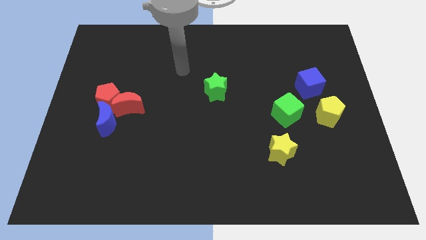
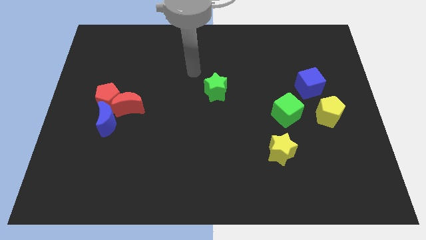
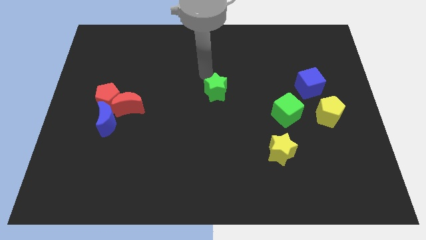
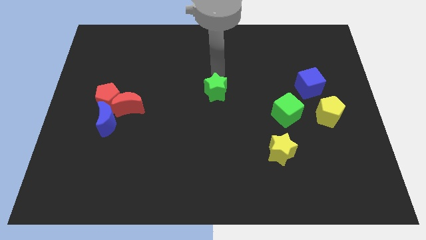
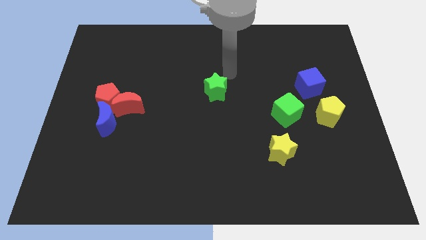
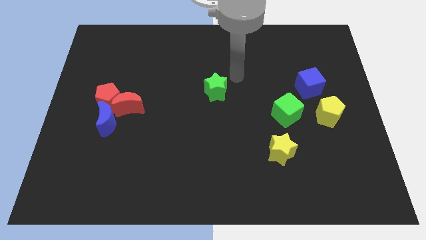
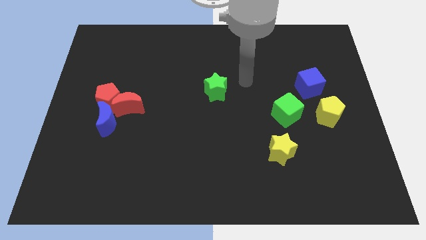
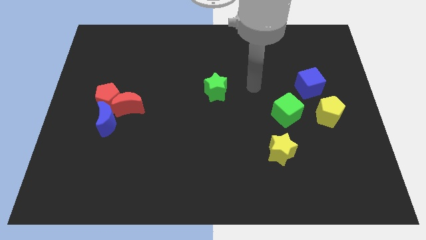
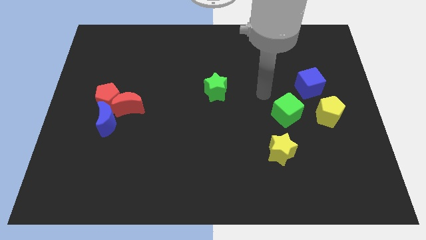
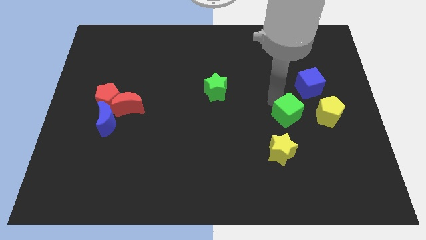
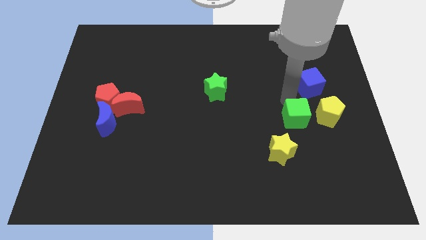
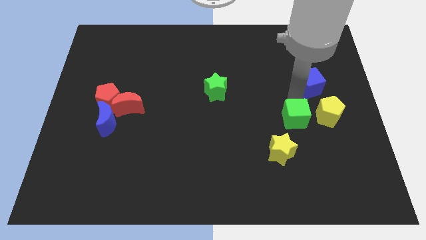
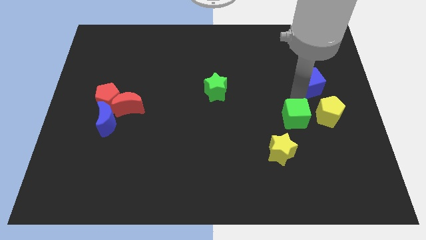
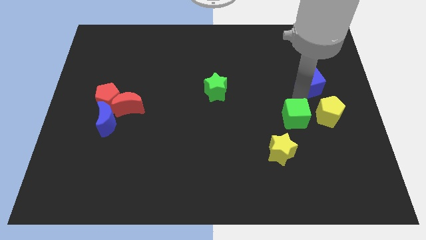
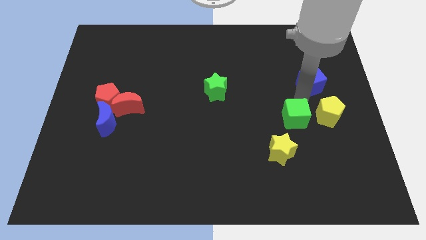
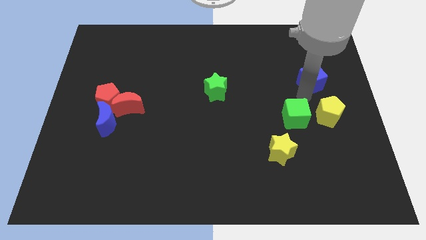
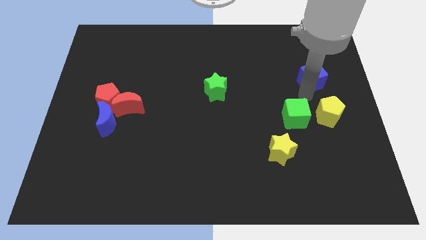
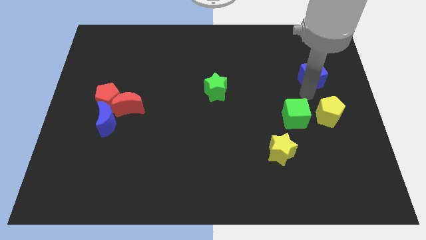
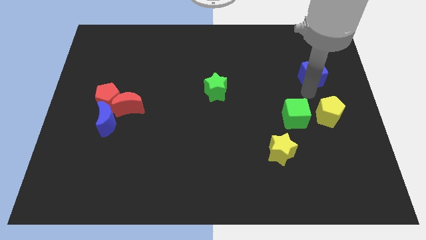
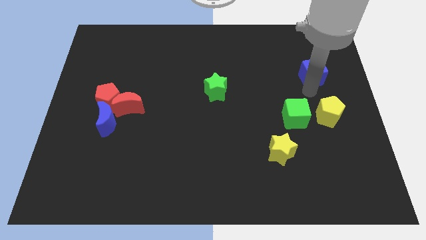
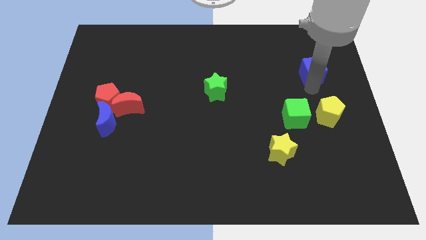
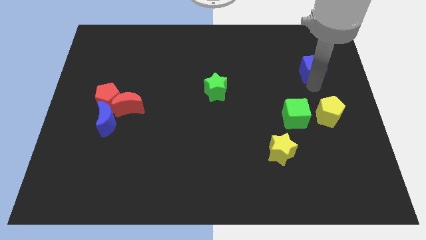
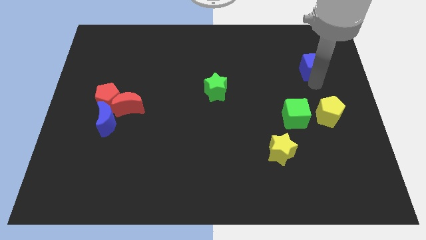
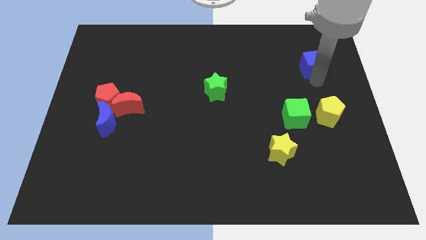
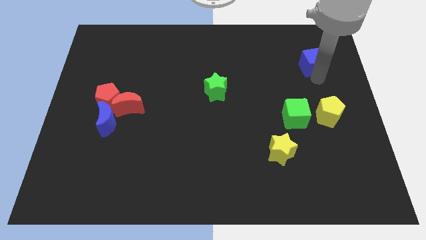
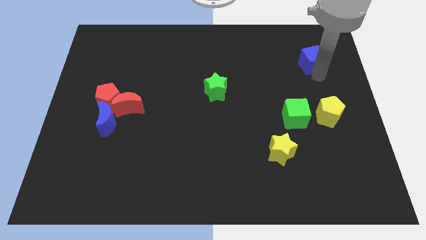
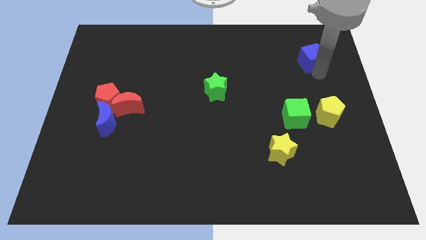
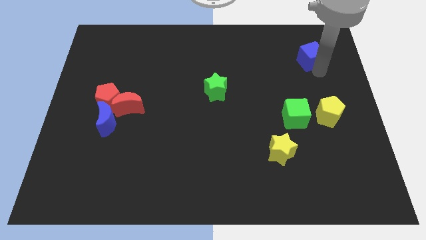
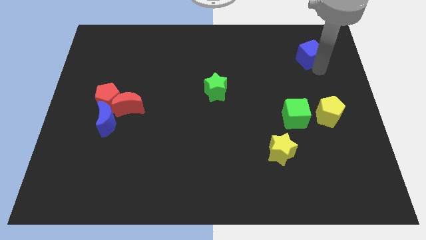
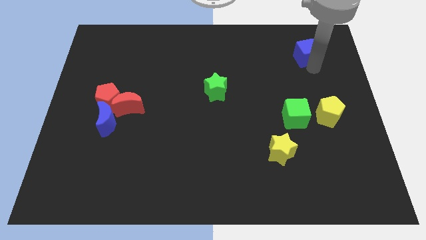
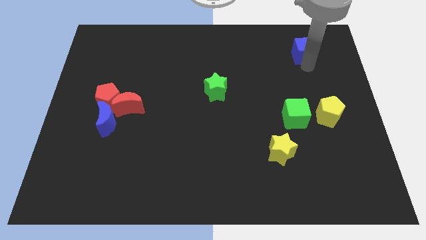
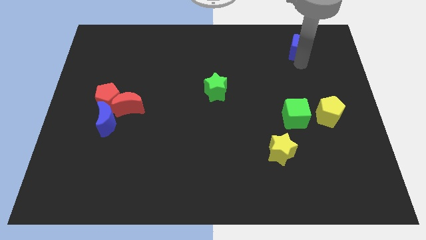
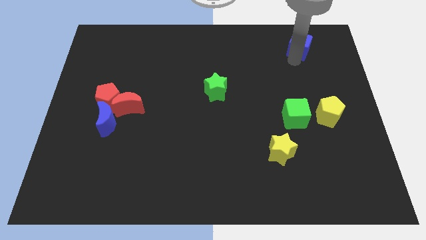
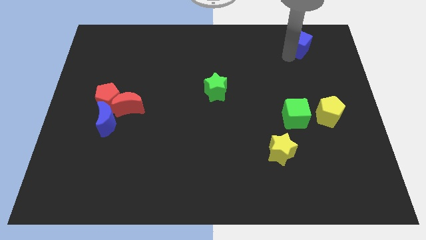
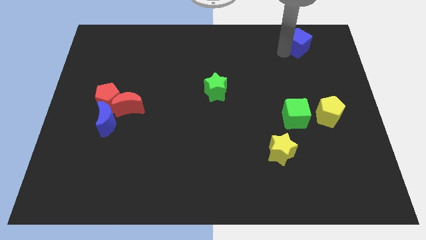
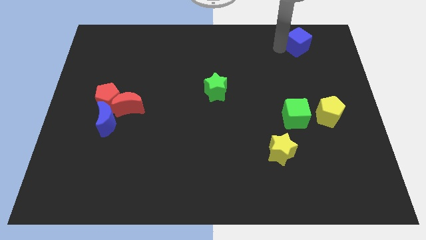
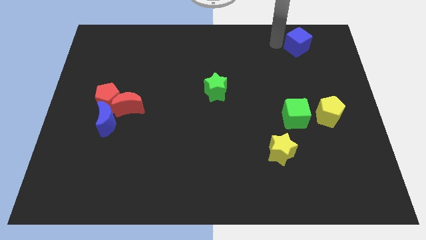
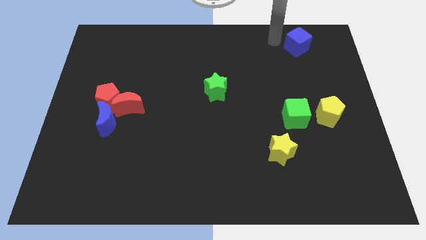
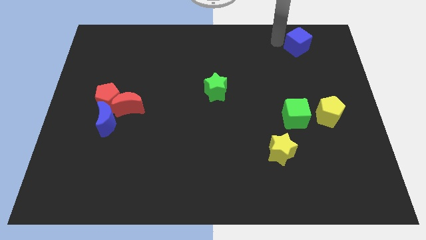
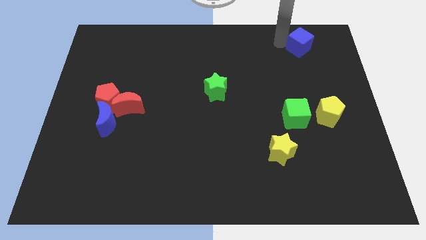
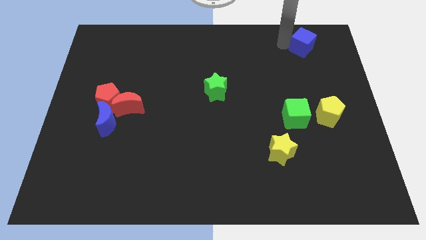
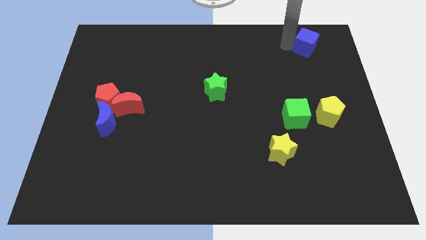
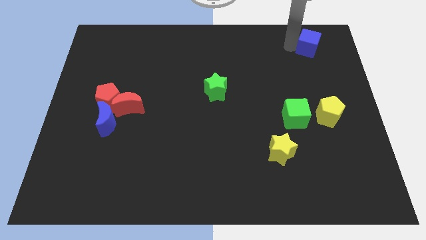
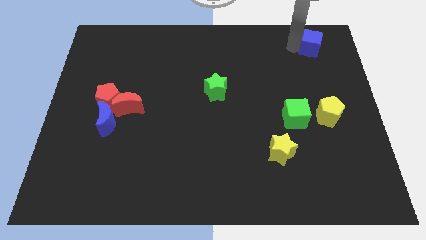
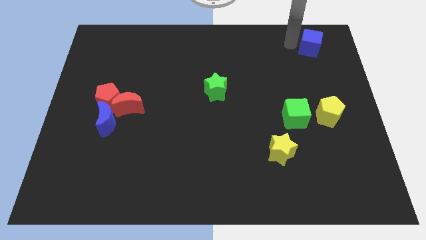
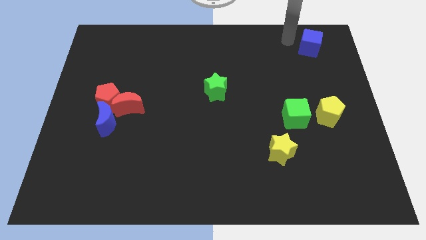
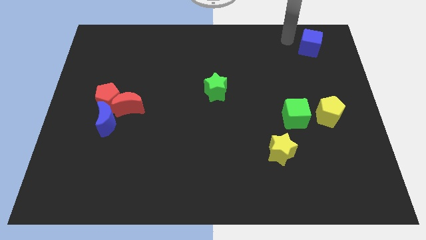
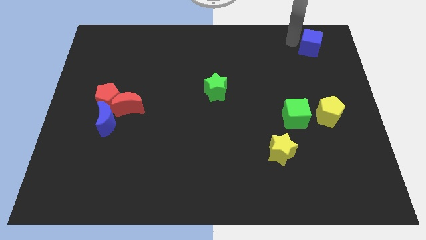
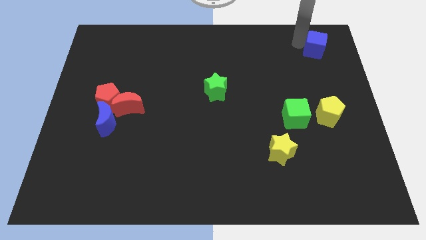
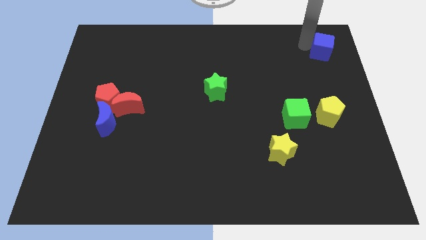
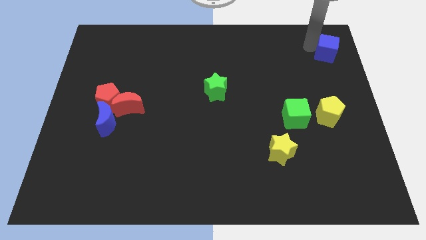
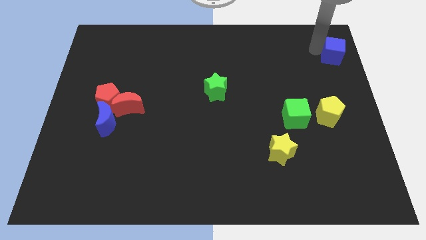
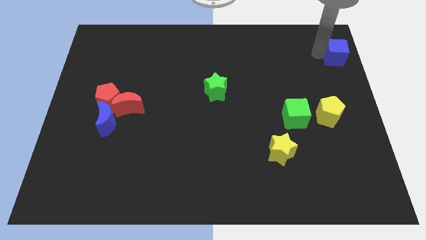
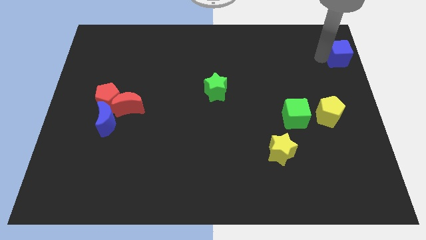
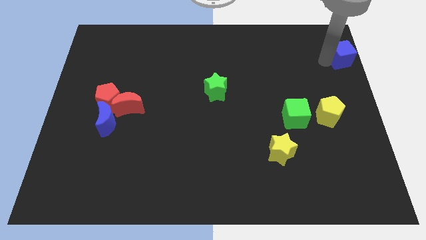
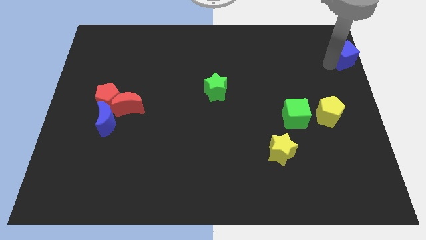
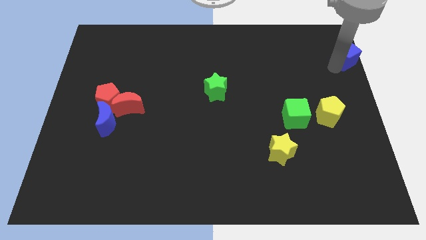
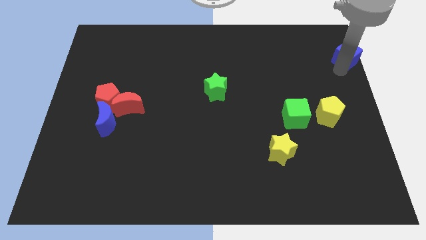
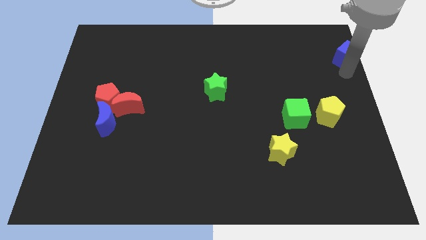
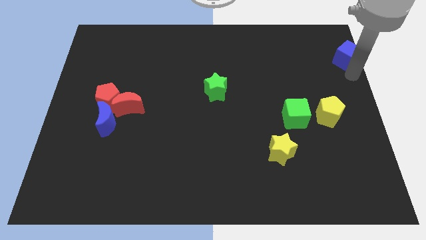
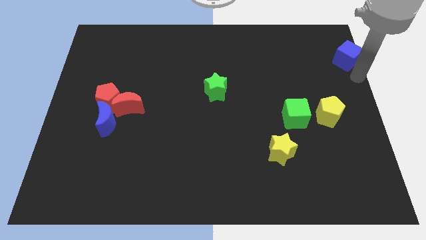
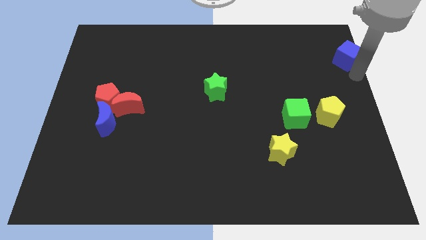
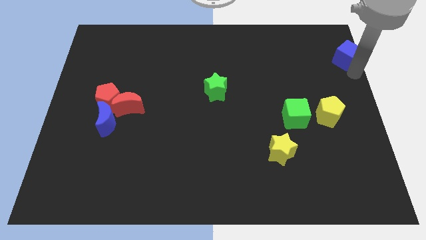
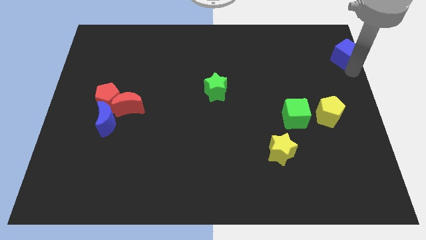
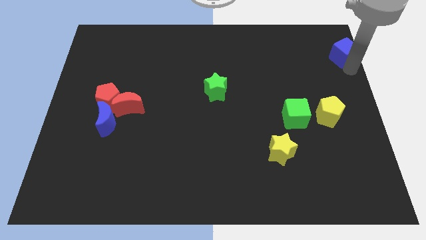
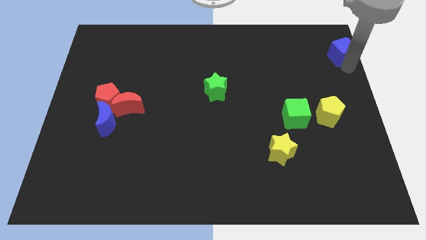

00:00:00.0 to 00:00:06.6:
move the blue cube to the top right
